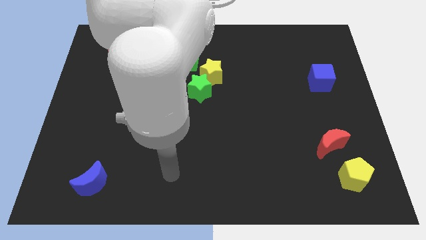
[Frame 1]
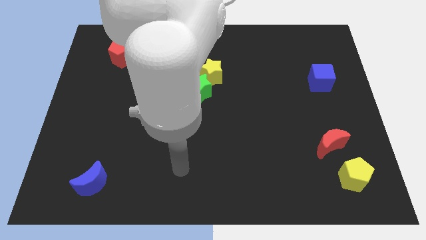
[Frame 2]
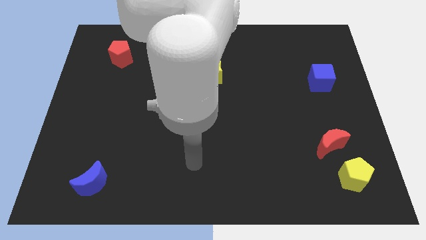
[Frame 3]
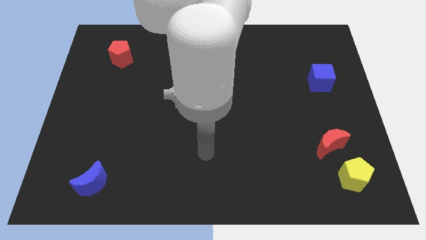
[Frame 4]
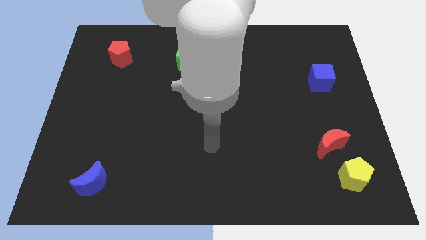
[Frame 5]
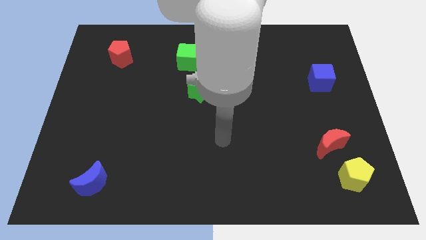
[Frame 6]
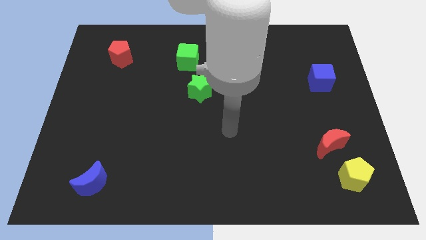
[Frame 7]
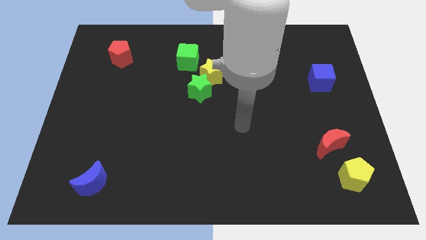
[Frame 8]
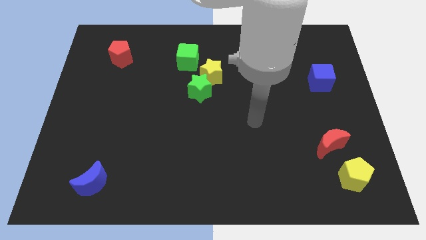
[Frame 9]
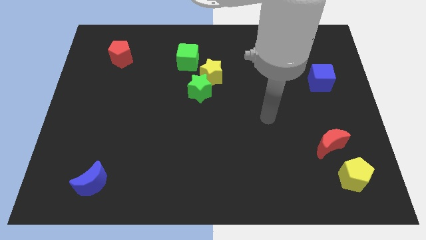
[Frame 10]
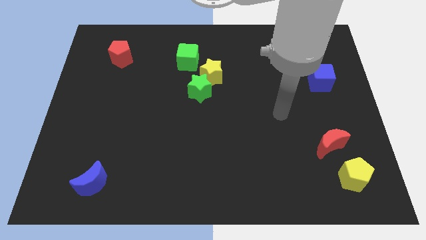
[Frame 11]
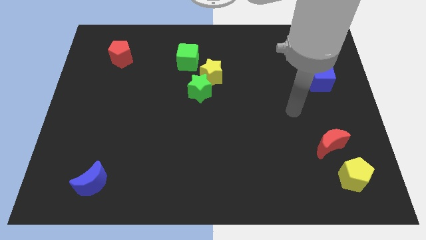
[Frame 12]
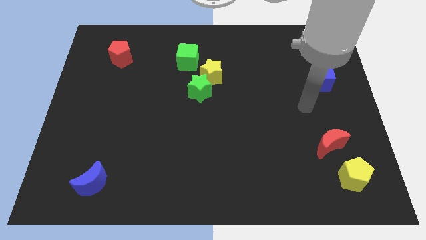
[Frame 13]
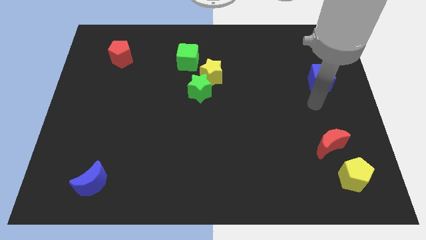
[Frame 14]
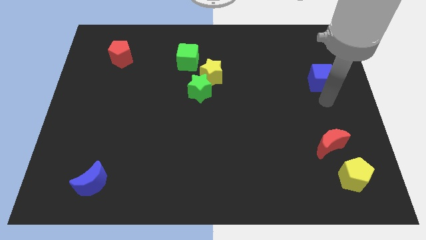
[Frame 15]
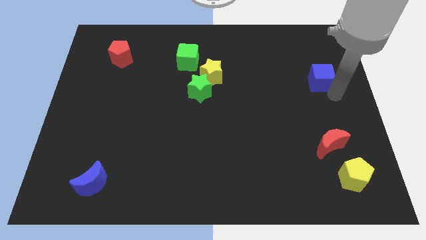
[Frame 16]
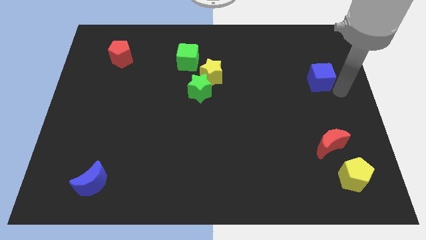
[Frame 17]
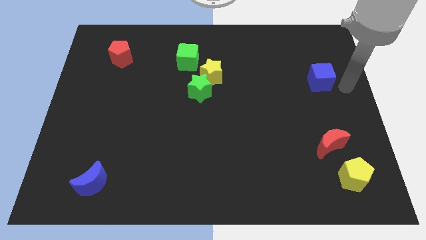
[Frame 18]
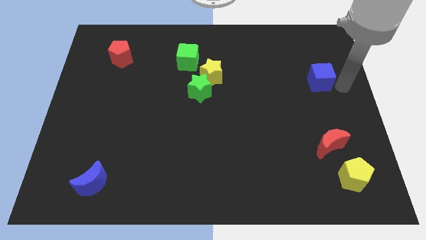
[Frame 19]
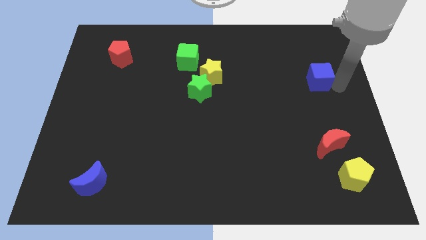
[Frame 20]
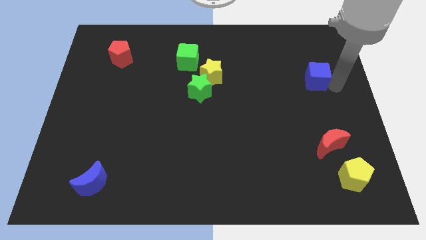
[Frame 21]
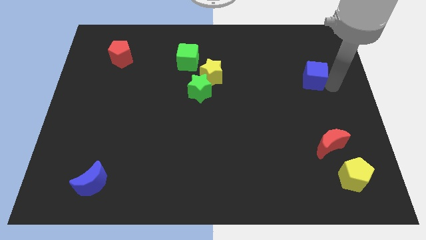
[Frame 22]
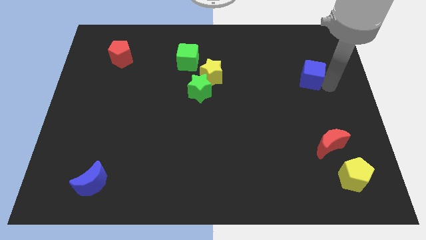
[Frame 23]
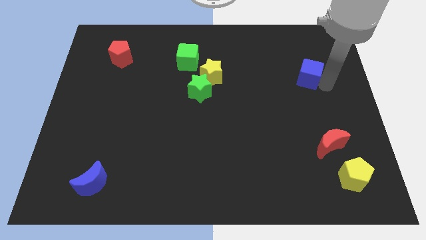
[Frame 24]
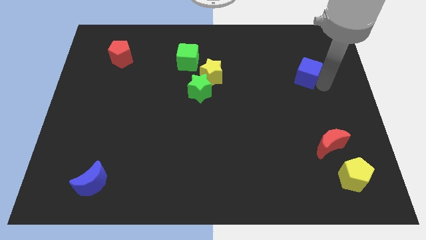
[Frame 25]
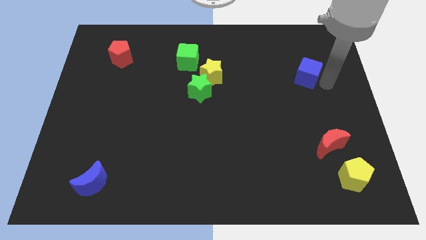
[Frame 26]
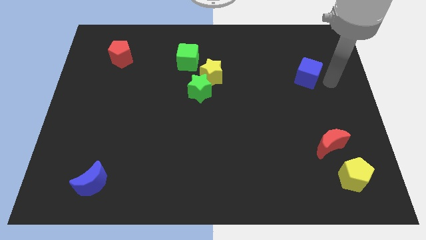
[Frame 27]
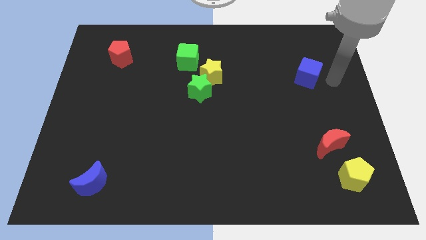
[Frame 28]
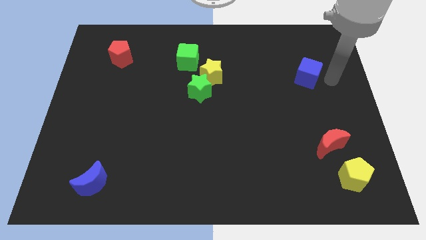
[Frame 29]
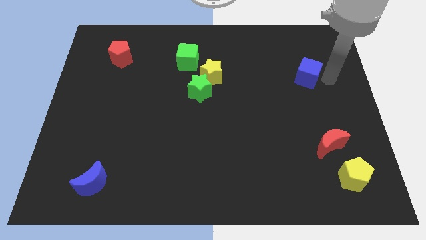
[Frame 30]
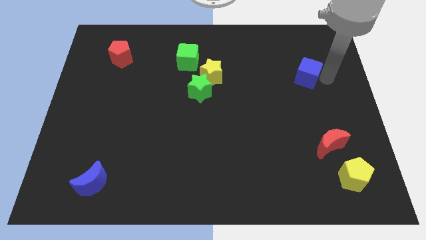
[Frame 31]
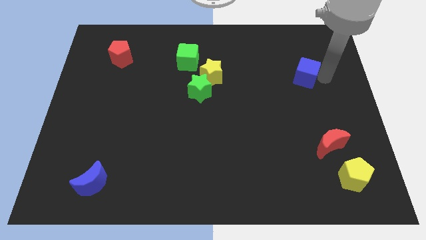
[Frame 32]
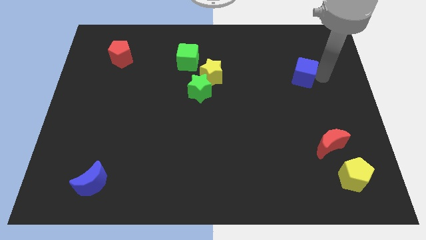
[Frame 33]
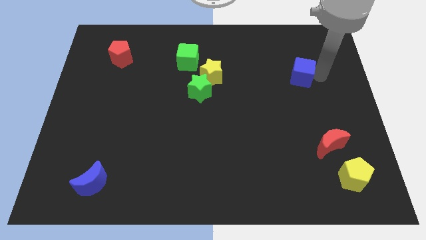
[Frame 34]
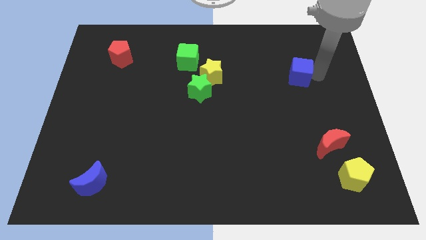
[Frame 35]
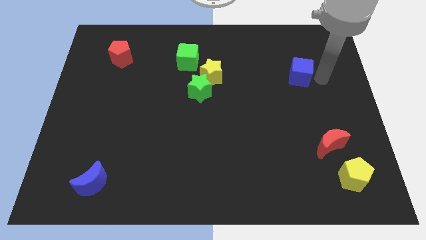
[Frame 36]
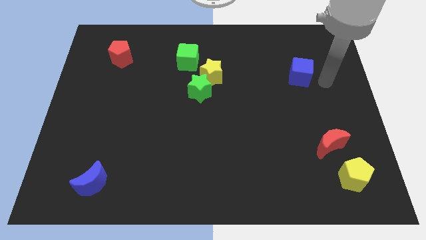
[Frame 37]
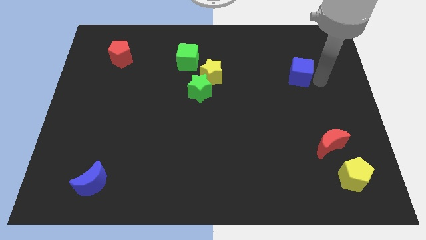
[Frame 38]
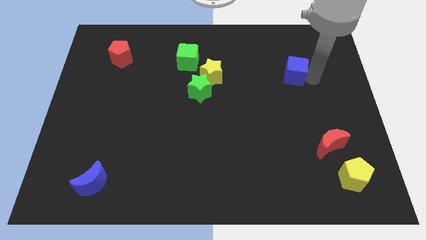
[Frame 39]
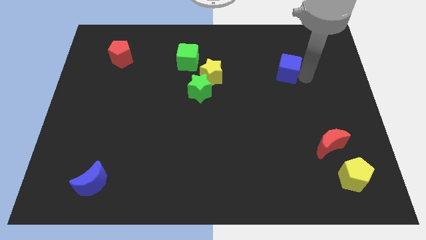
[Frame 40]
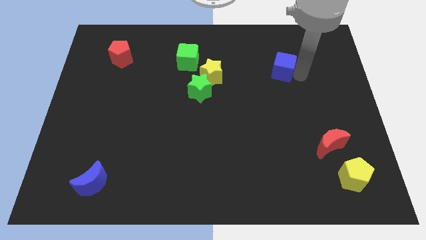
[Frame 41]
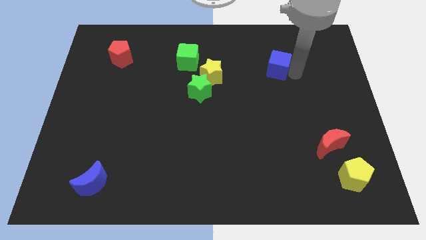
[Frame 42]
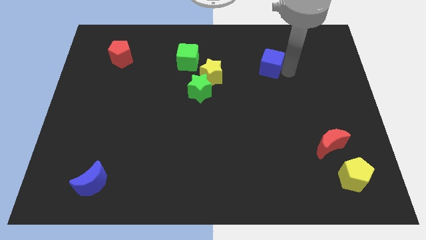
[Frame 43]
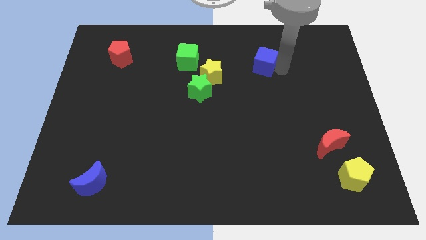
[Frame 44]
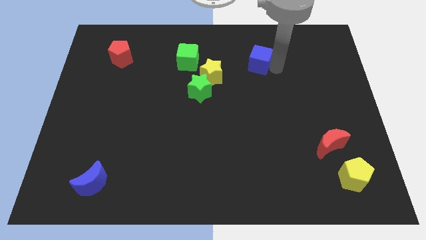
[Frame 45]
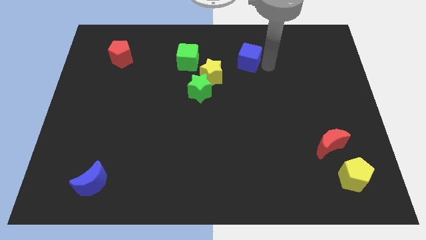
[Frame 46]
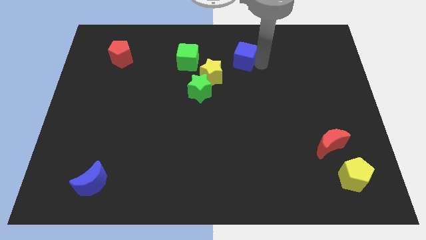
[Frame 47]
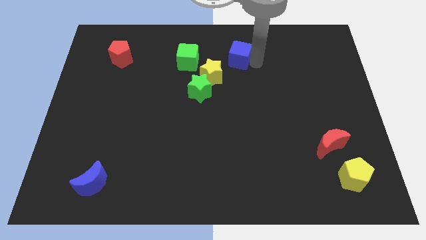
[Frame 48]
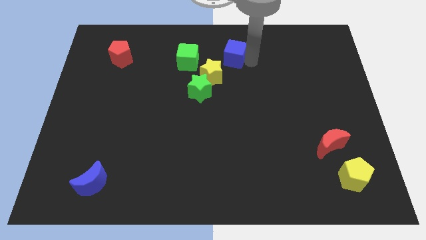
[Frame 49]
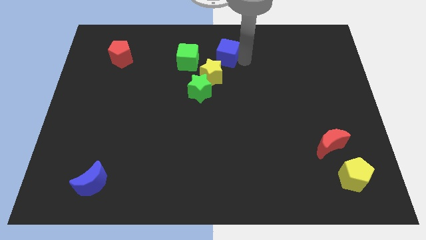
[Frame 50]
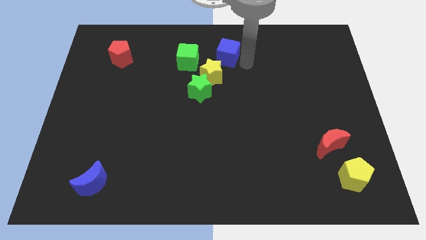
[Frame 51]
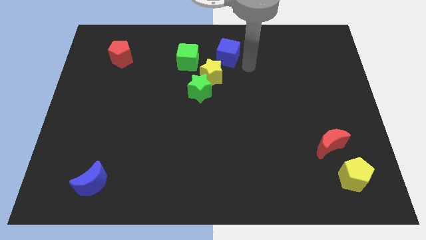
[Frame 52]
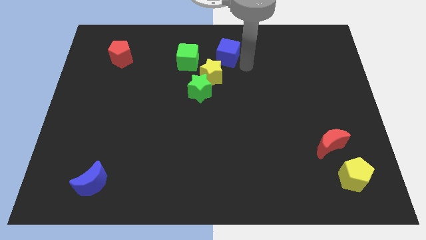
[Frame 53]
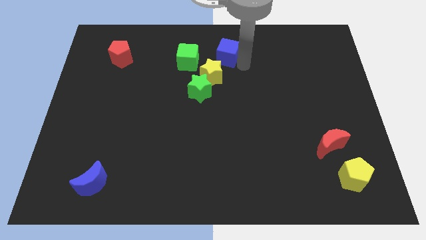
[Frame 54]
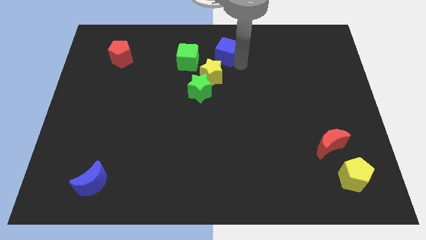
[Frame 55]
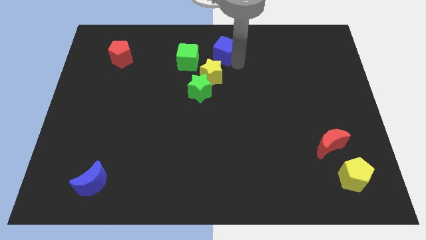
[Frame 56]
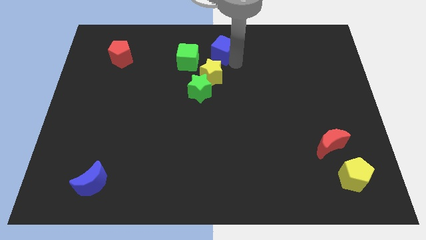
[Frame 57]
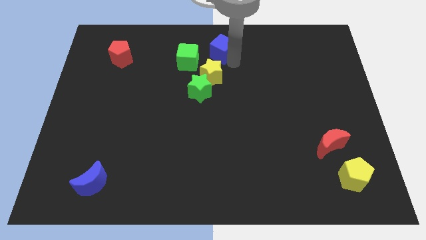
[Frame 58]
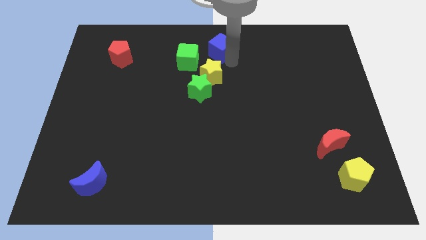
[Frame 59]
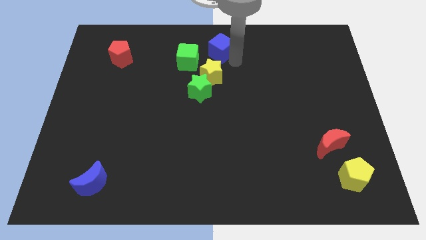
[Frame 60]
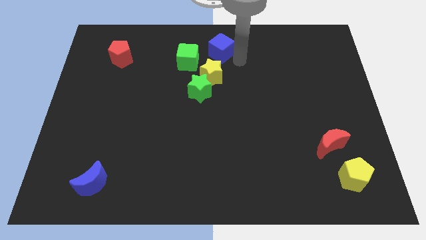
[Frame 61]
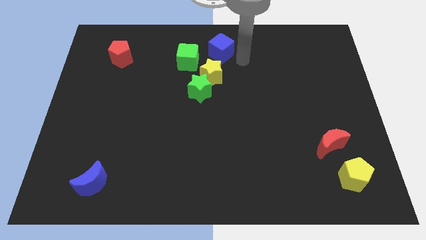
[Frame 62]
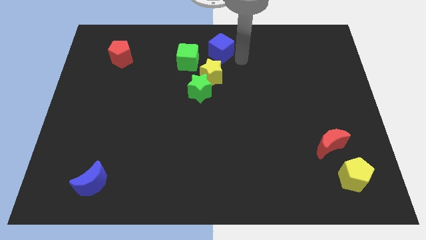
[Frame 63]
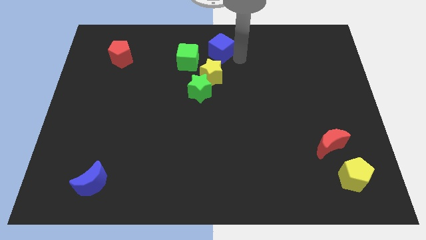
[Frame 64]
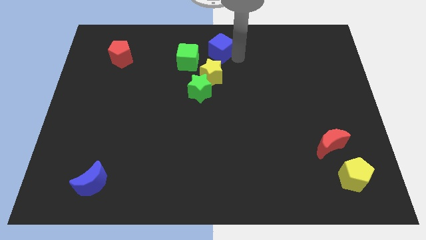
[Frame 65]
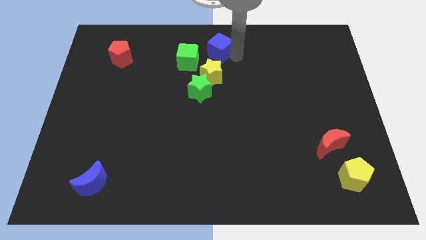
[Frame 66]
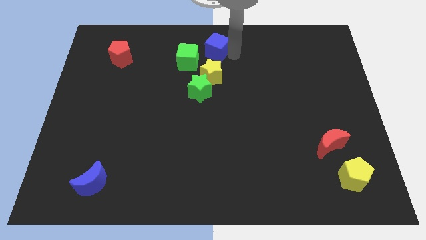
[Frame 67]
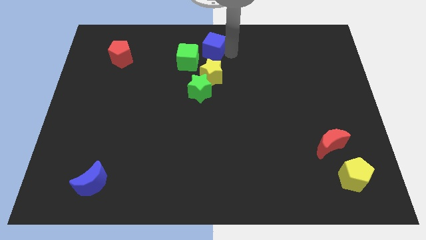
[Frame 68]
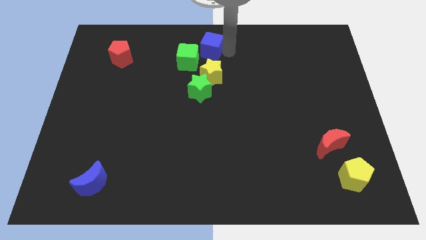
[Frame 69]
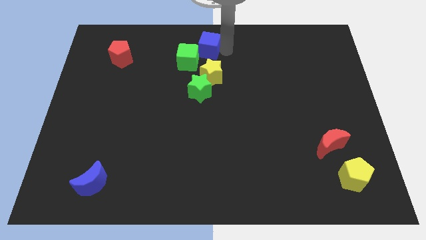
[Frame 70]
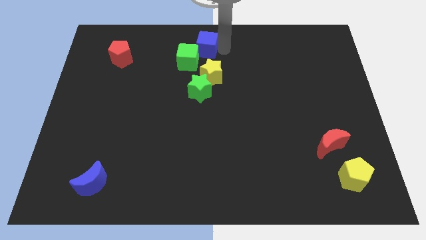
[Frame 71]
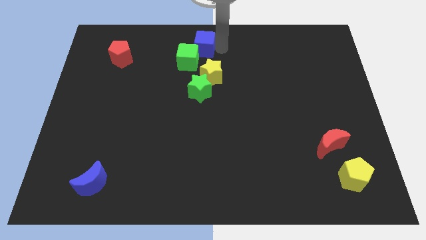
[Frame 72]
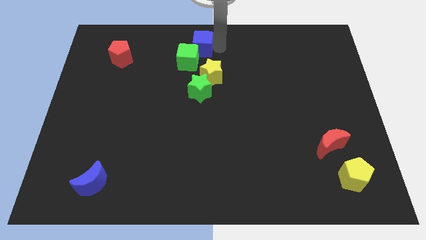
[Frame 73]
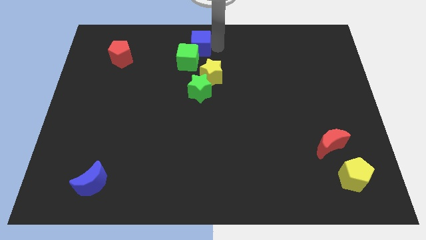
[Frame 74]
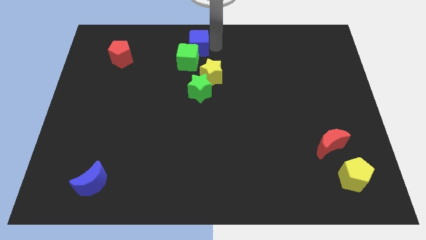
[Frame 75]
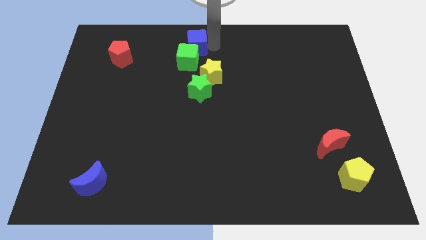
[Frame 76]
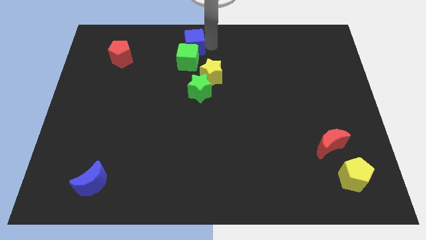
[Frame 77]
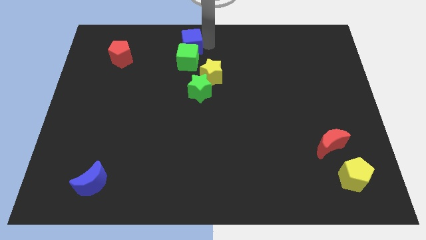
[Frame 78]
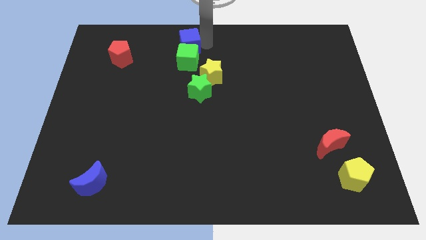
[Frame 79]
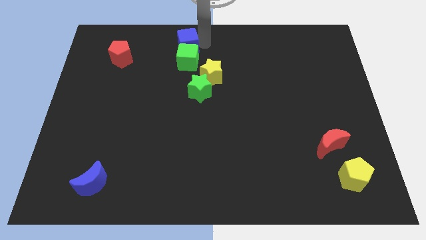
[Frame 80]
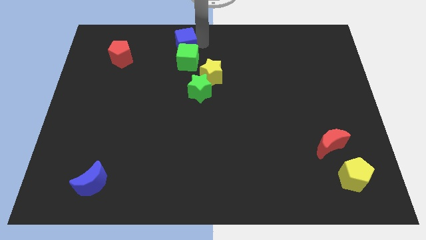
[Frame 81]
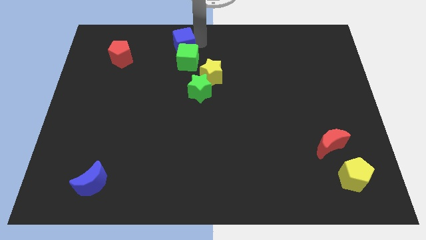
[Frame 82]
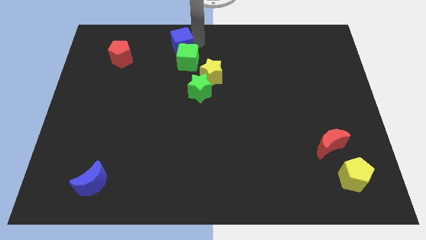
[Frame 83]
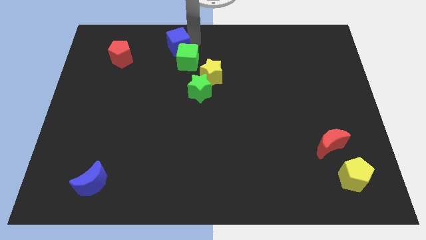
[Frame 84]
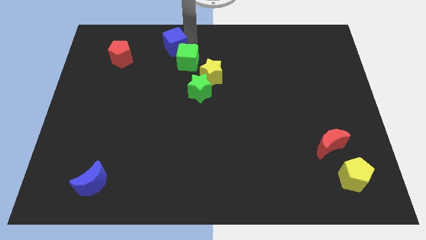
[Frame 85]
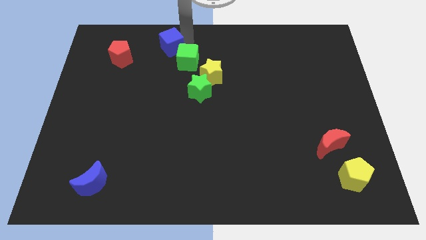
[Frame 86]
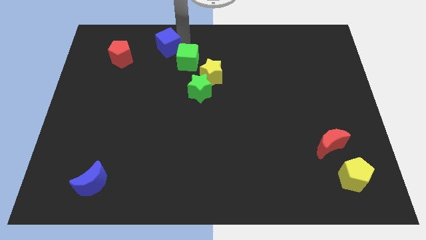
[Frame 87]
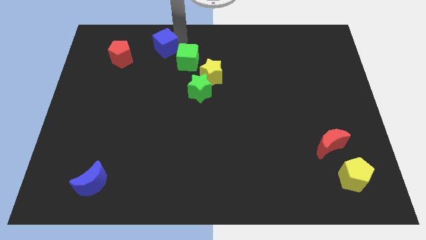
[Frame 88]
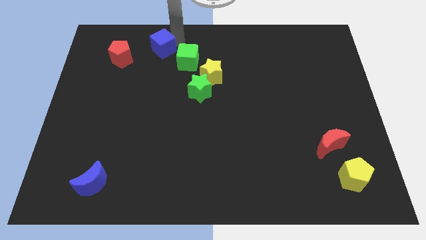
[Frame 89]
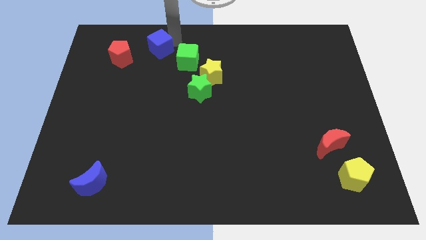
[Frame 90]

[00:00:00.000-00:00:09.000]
push the blue cube to the left of the green cube
